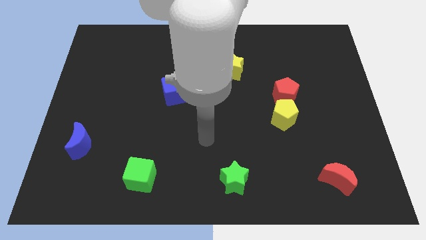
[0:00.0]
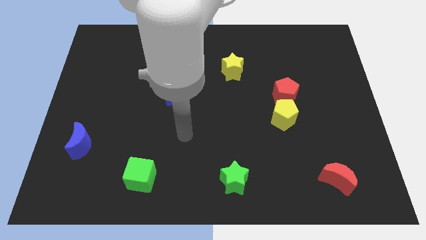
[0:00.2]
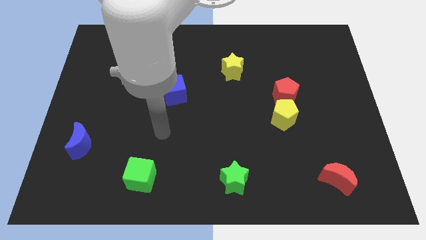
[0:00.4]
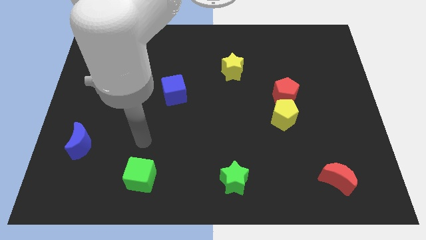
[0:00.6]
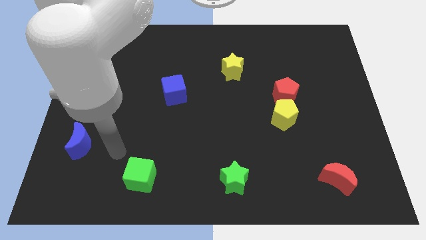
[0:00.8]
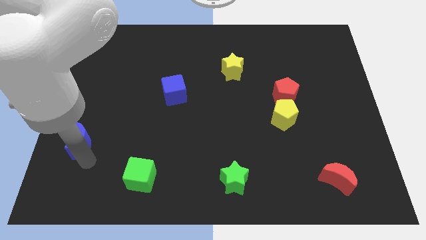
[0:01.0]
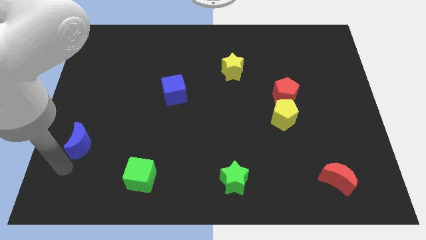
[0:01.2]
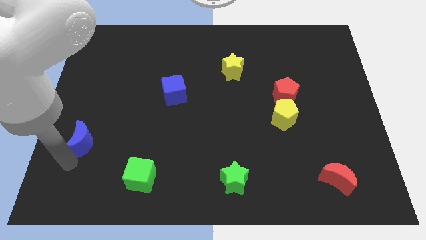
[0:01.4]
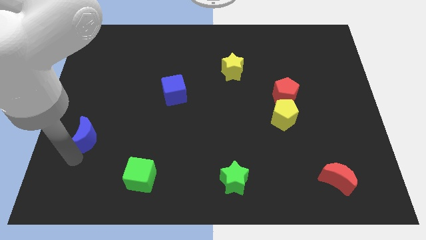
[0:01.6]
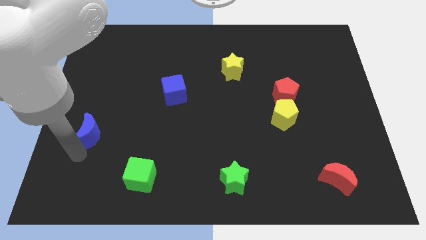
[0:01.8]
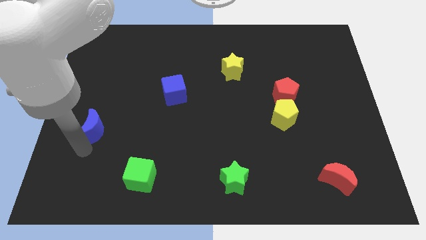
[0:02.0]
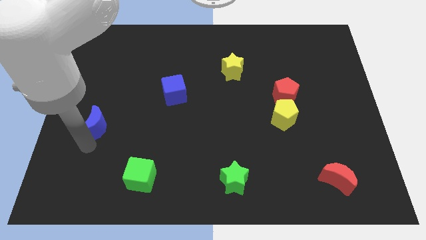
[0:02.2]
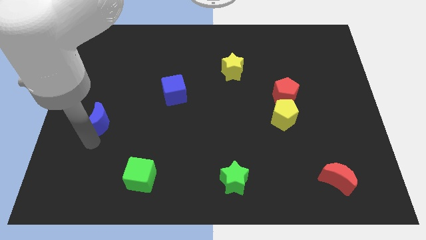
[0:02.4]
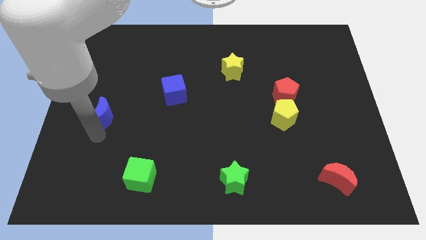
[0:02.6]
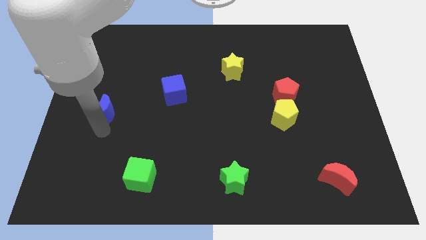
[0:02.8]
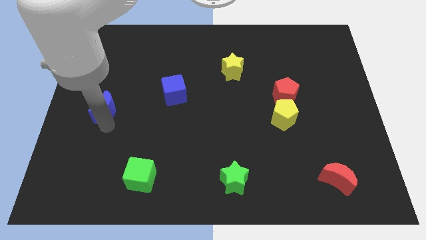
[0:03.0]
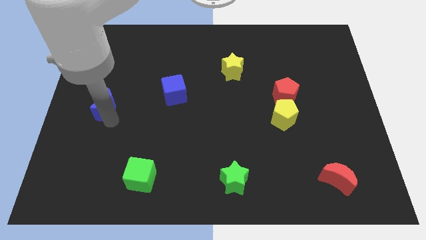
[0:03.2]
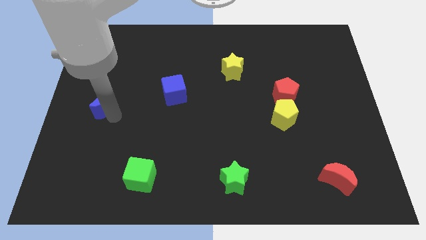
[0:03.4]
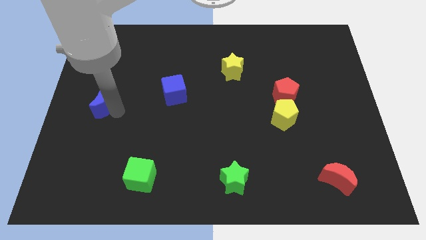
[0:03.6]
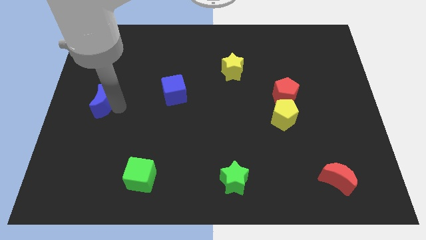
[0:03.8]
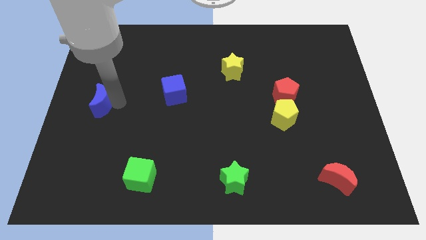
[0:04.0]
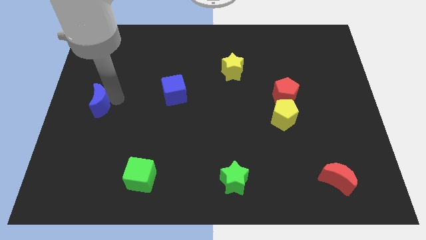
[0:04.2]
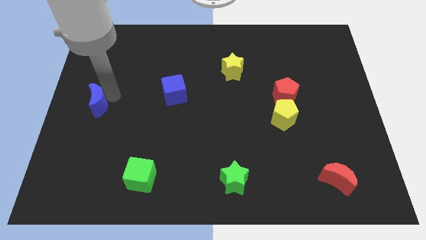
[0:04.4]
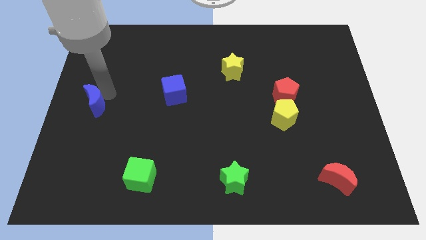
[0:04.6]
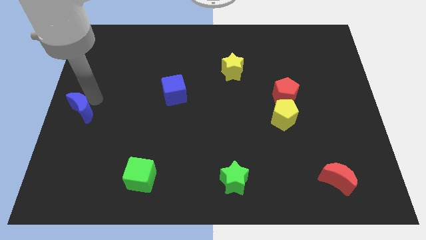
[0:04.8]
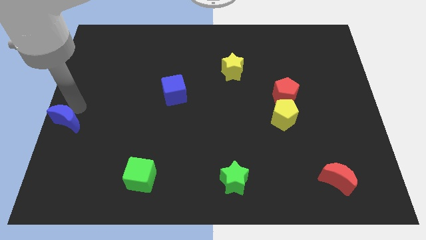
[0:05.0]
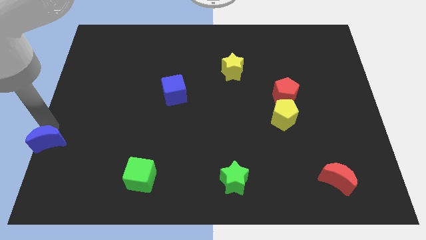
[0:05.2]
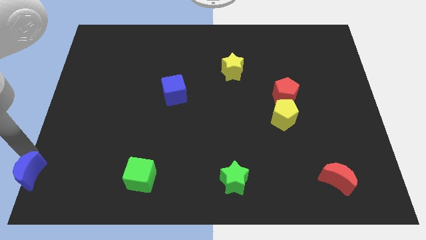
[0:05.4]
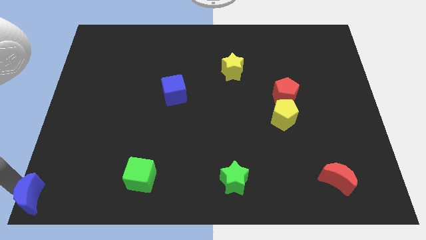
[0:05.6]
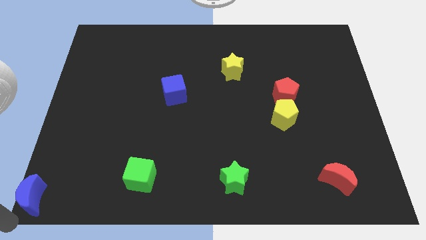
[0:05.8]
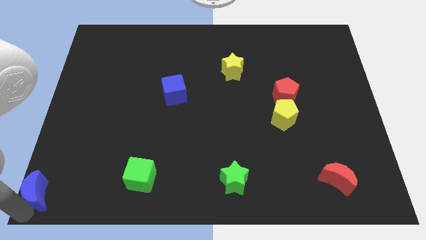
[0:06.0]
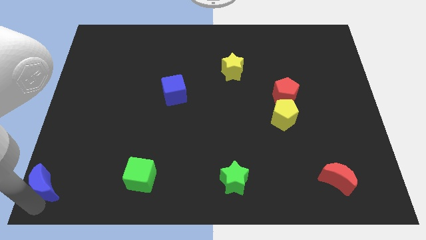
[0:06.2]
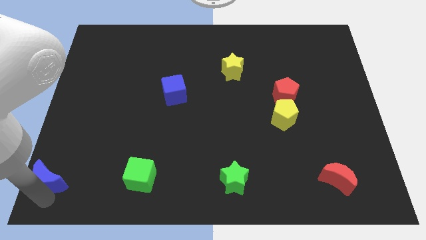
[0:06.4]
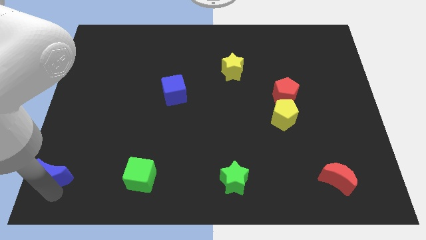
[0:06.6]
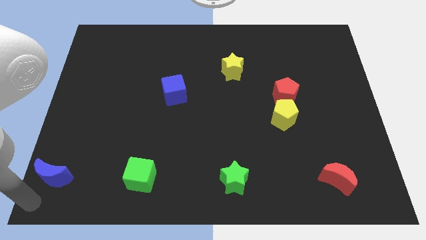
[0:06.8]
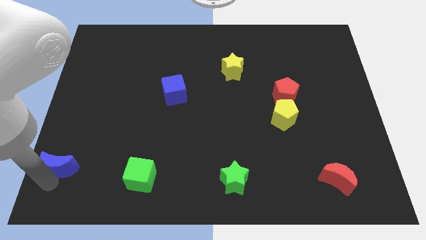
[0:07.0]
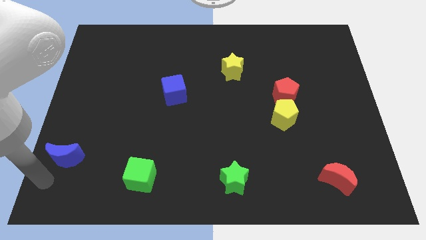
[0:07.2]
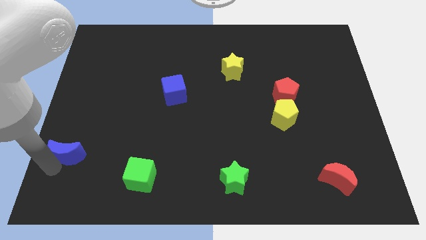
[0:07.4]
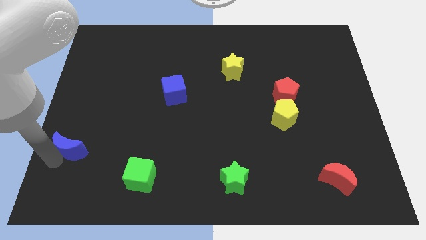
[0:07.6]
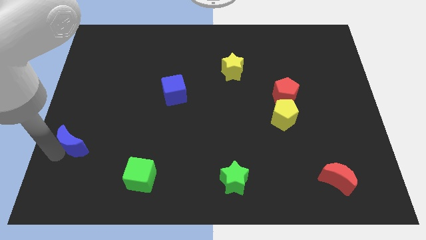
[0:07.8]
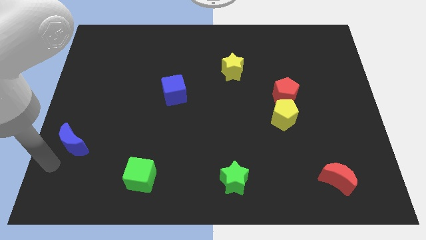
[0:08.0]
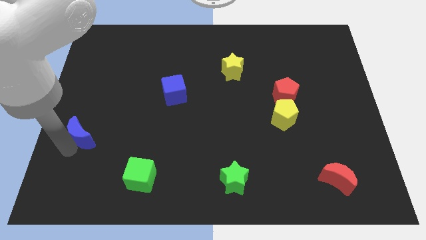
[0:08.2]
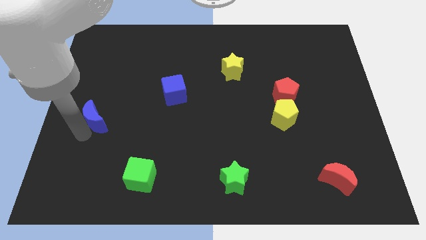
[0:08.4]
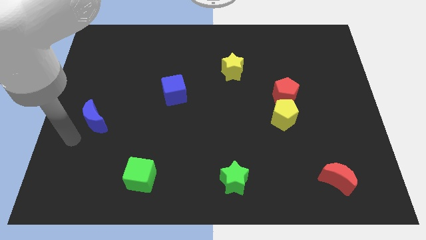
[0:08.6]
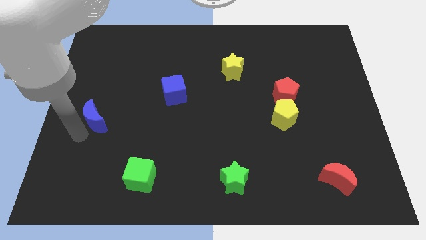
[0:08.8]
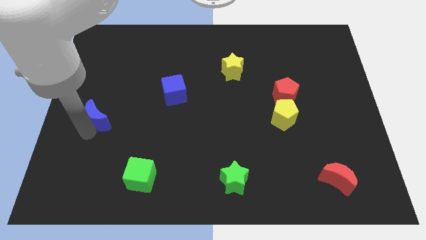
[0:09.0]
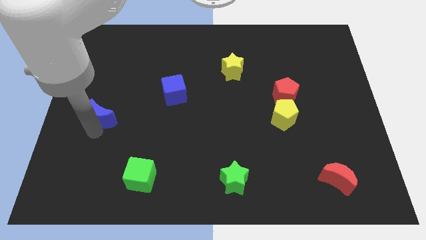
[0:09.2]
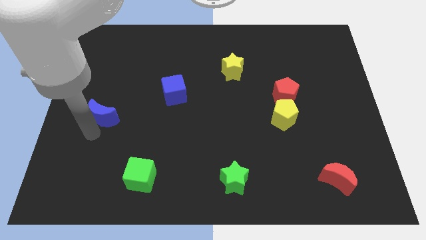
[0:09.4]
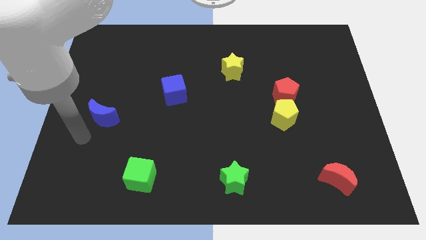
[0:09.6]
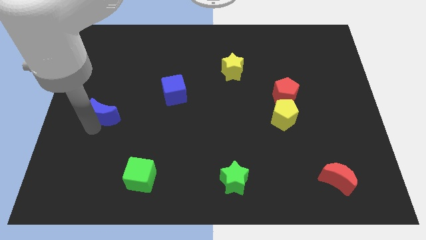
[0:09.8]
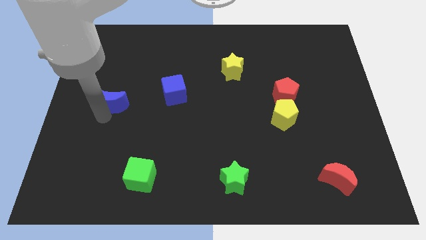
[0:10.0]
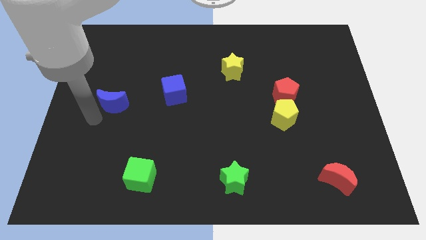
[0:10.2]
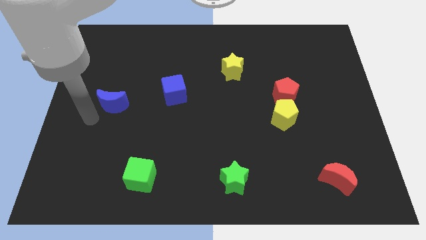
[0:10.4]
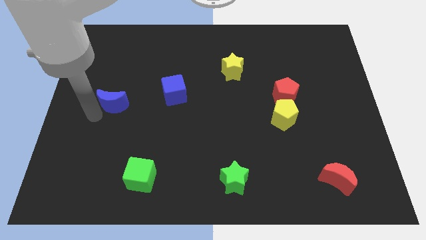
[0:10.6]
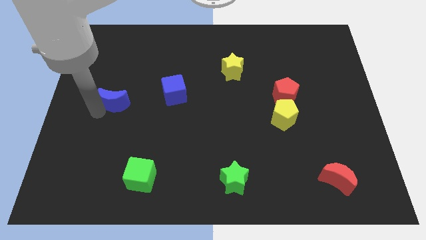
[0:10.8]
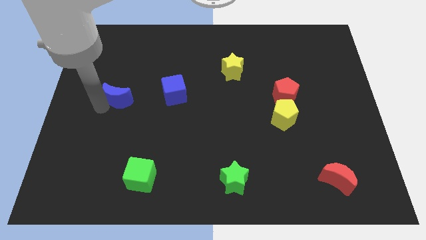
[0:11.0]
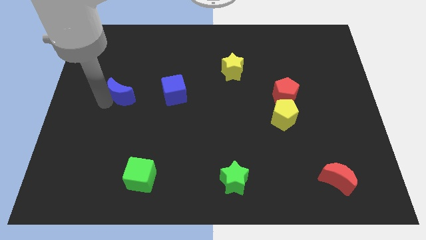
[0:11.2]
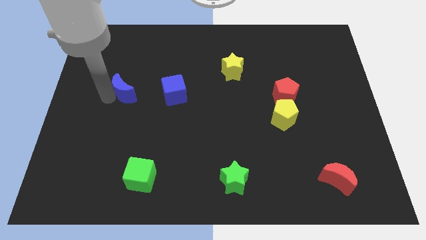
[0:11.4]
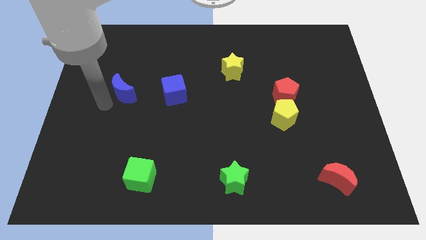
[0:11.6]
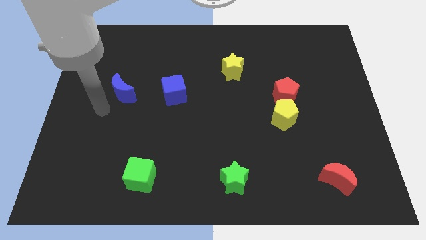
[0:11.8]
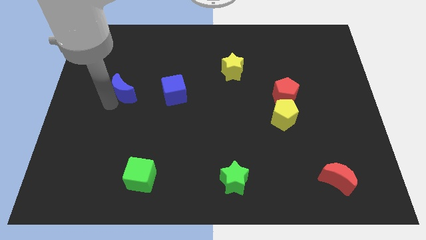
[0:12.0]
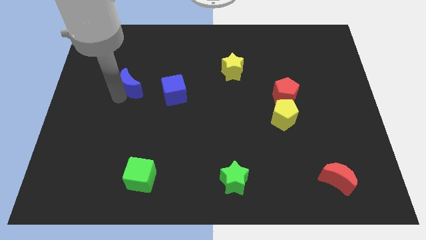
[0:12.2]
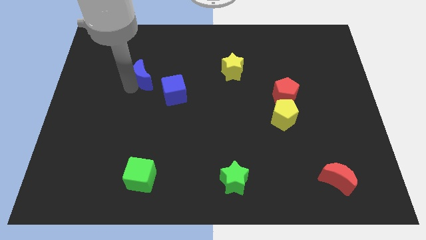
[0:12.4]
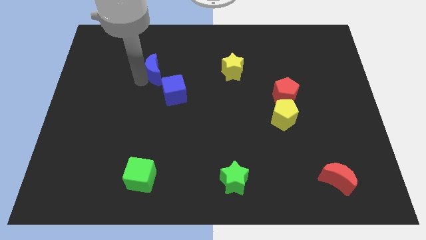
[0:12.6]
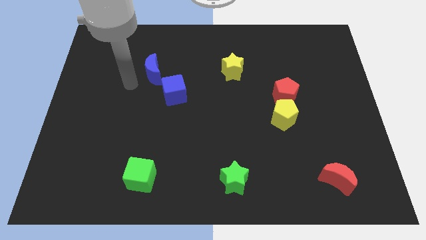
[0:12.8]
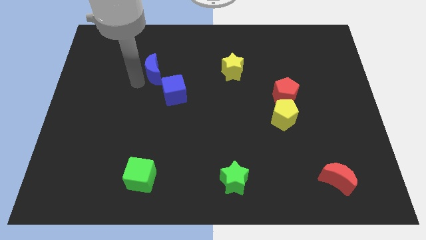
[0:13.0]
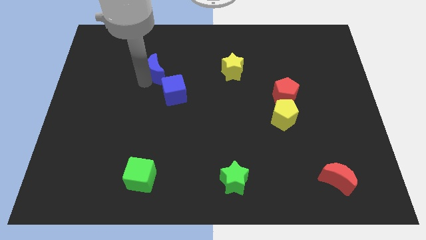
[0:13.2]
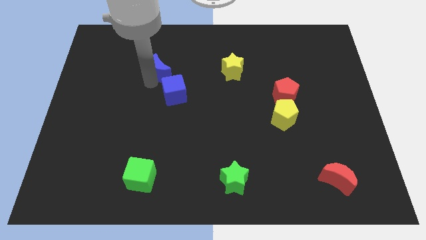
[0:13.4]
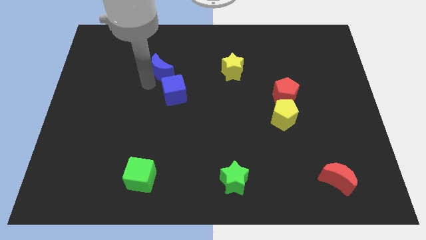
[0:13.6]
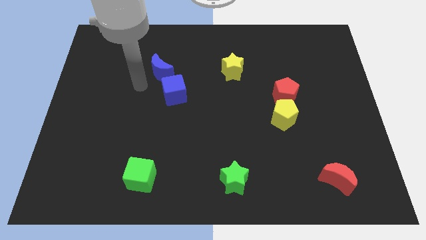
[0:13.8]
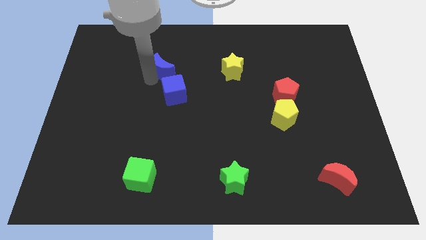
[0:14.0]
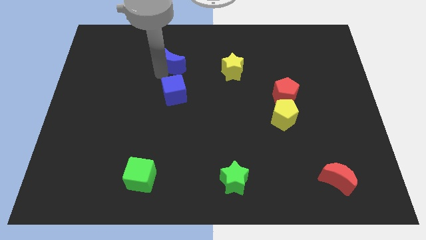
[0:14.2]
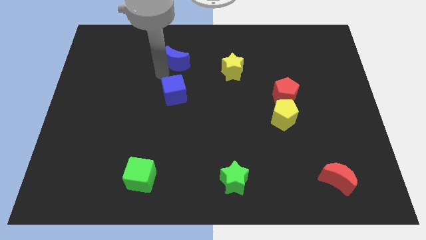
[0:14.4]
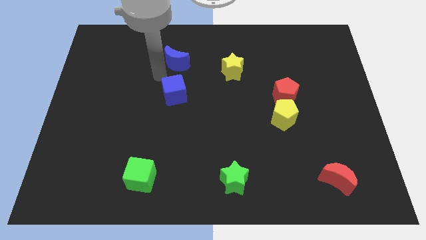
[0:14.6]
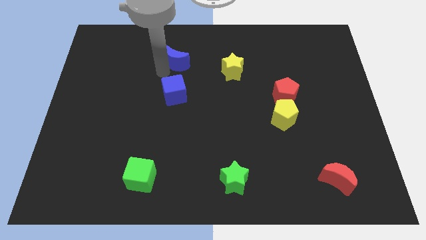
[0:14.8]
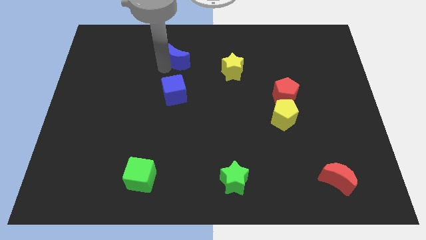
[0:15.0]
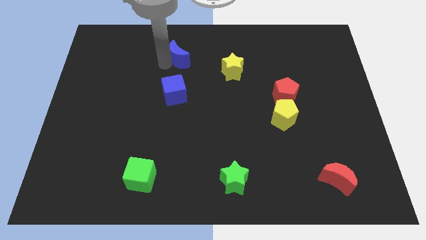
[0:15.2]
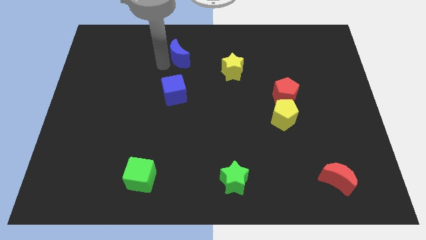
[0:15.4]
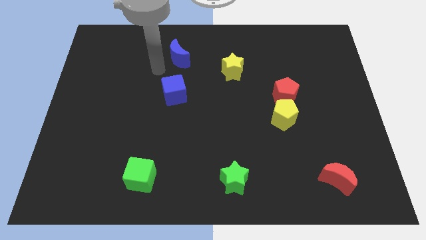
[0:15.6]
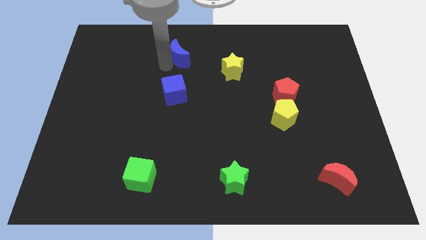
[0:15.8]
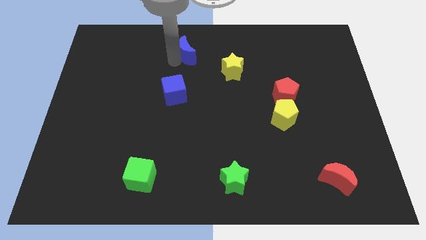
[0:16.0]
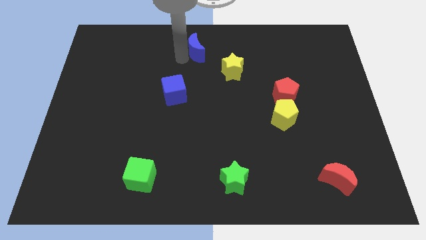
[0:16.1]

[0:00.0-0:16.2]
slide the blue moon to the towards your base
